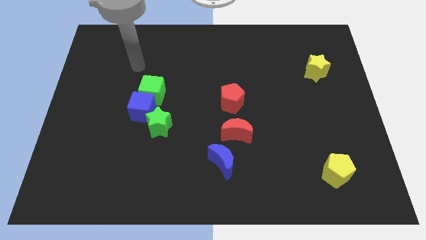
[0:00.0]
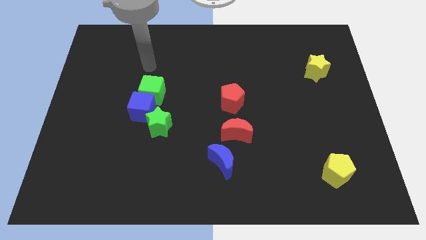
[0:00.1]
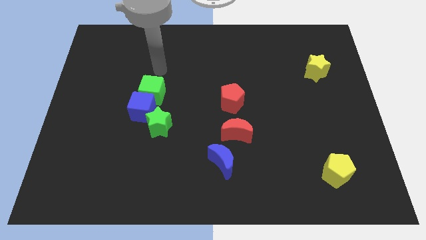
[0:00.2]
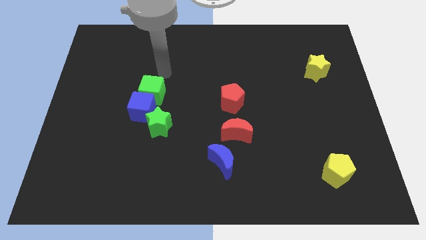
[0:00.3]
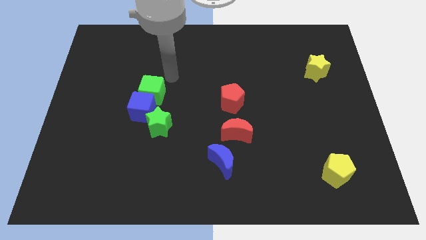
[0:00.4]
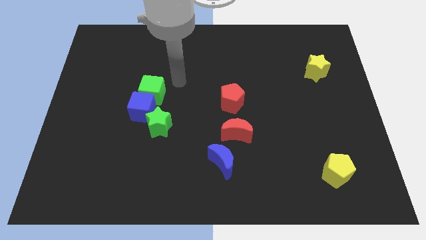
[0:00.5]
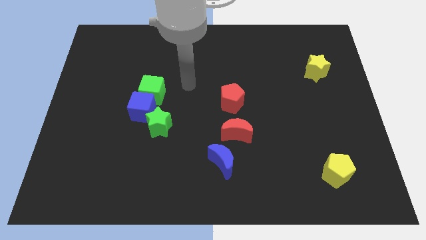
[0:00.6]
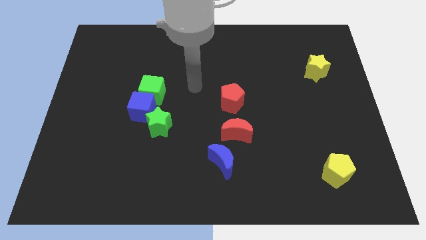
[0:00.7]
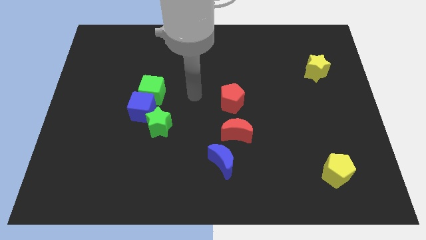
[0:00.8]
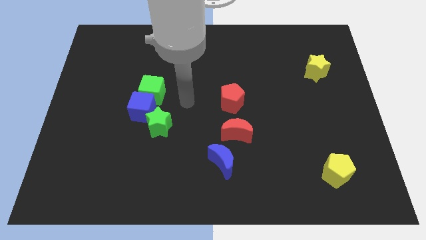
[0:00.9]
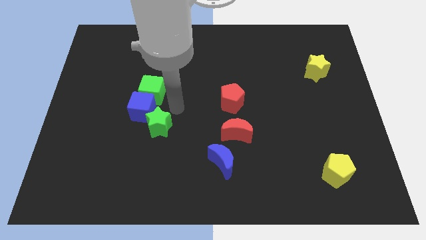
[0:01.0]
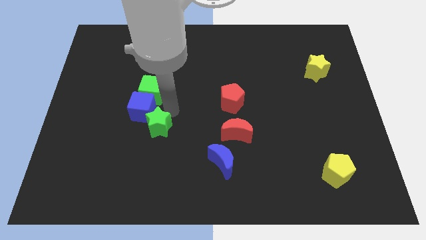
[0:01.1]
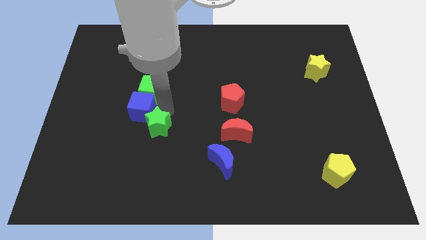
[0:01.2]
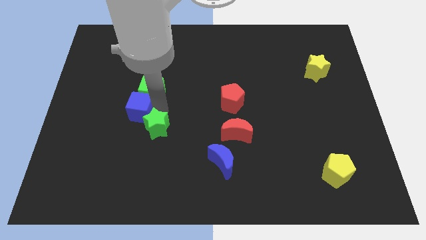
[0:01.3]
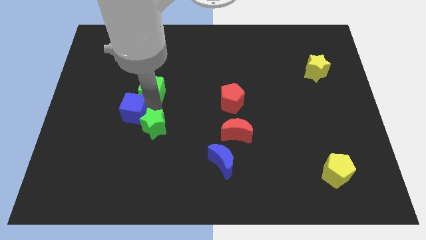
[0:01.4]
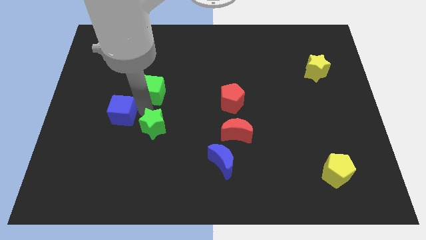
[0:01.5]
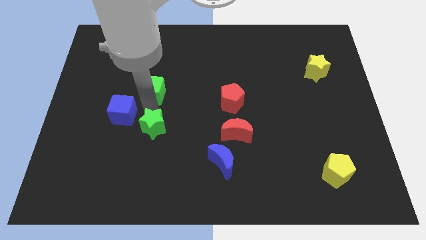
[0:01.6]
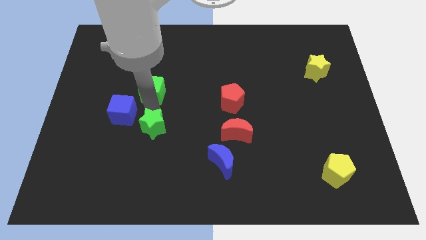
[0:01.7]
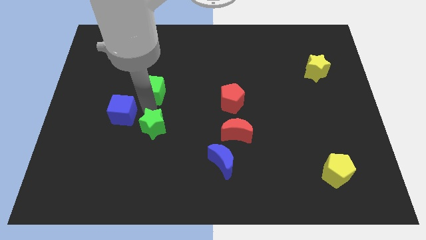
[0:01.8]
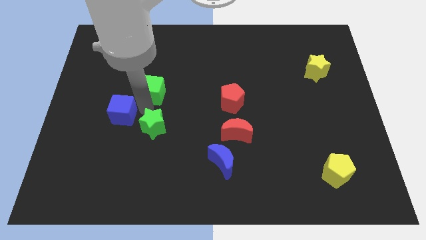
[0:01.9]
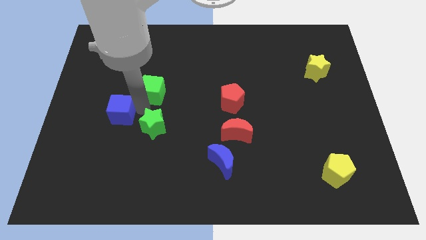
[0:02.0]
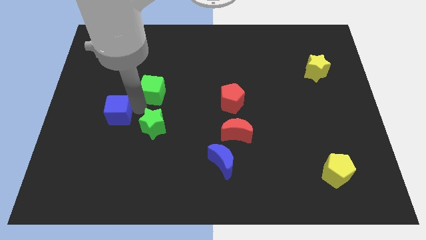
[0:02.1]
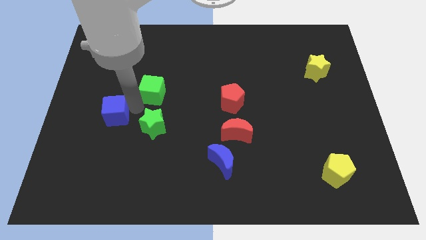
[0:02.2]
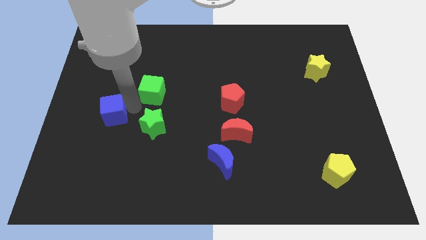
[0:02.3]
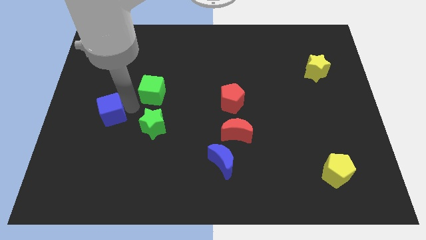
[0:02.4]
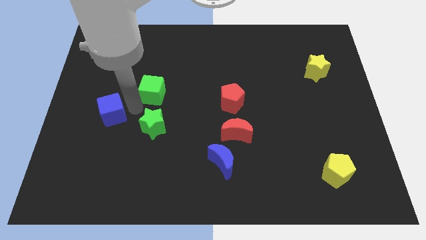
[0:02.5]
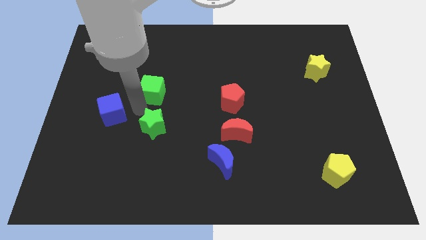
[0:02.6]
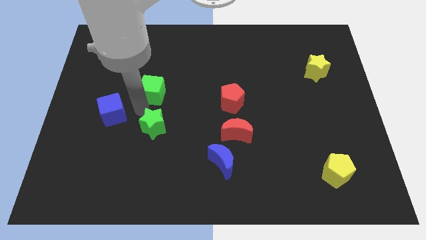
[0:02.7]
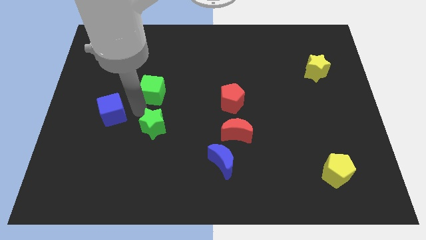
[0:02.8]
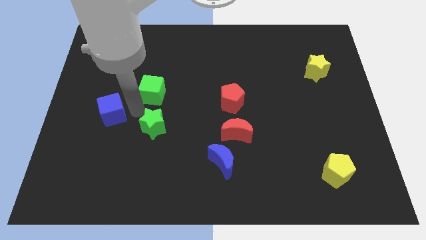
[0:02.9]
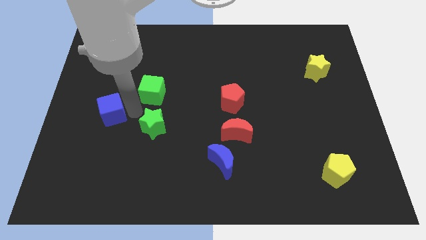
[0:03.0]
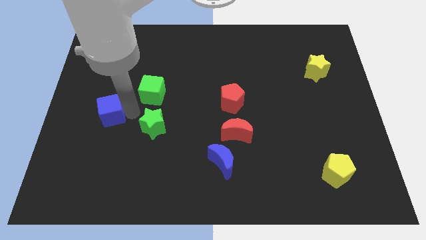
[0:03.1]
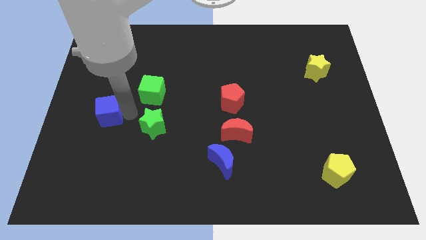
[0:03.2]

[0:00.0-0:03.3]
pull the blue cube apart from the green cube and green star

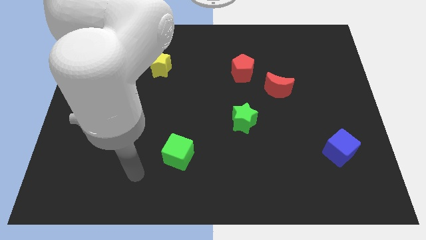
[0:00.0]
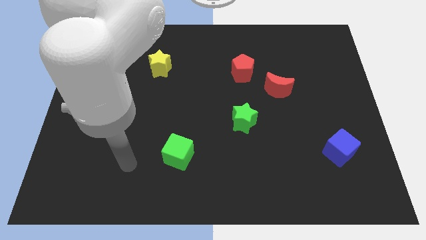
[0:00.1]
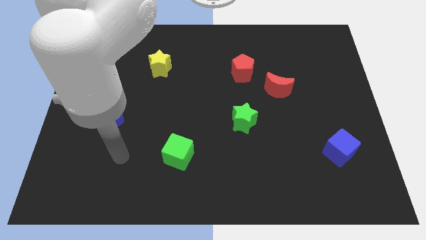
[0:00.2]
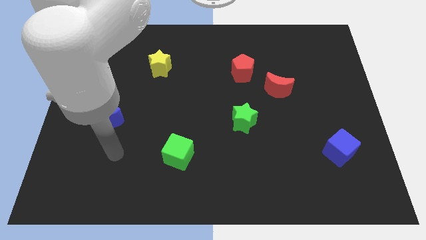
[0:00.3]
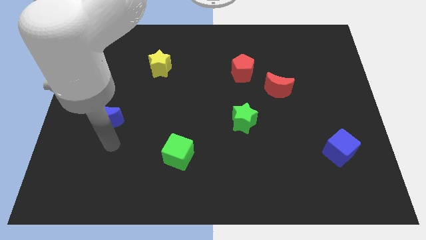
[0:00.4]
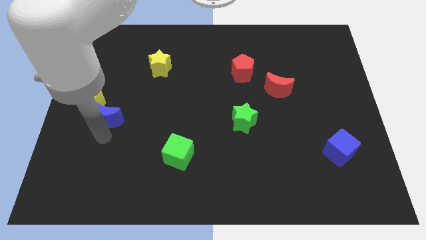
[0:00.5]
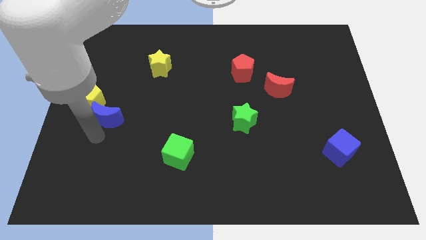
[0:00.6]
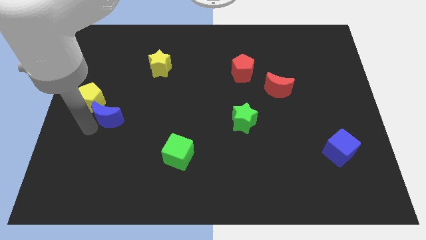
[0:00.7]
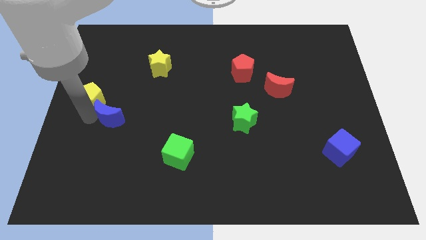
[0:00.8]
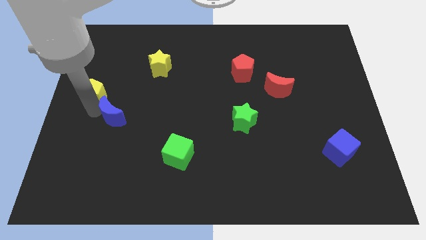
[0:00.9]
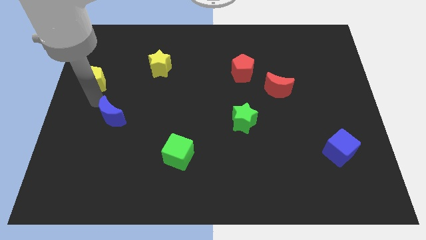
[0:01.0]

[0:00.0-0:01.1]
pull the blue moon apart from the yellow pentagon

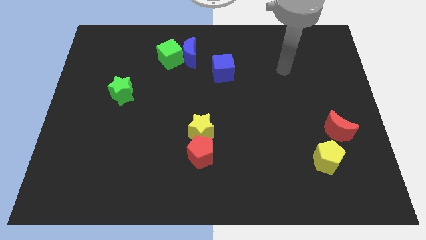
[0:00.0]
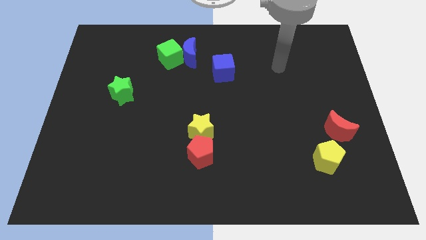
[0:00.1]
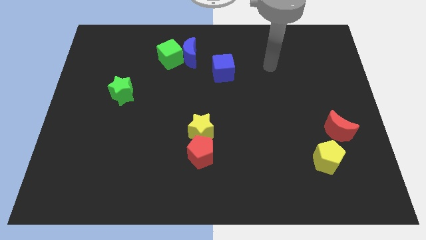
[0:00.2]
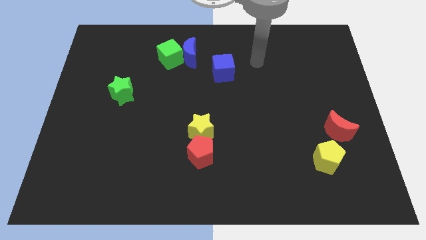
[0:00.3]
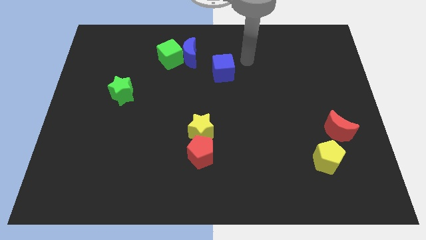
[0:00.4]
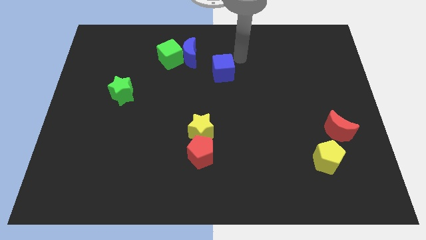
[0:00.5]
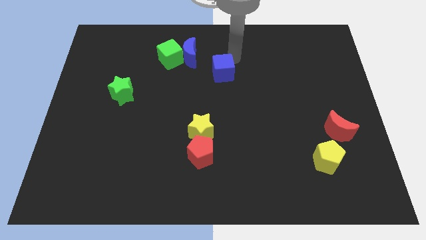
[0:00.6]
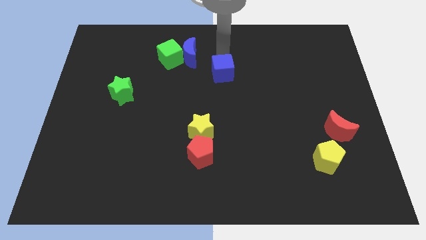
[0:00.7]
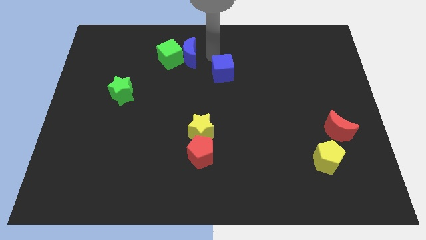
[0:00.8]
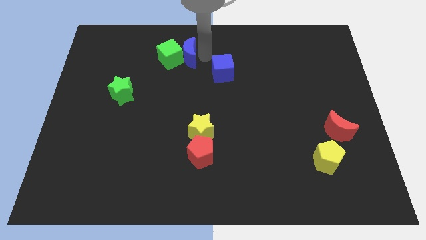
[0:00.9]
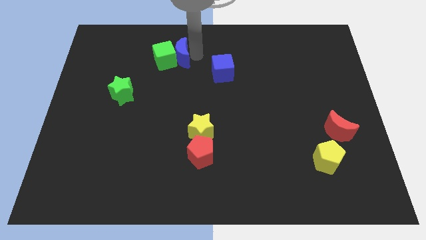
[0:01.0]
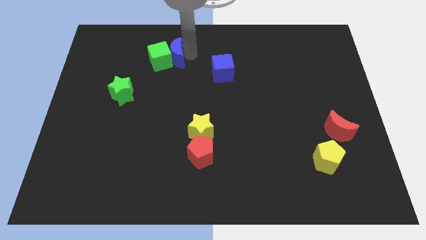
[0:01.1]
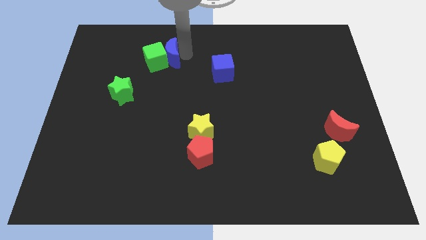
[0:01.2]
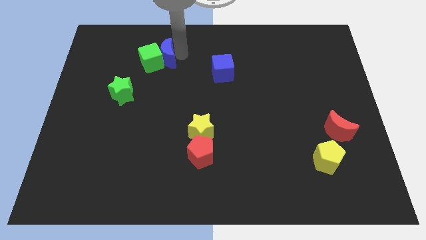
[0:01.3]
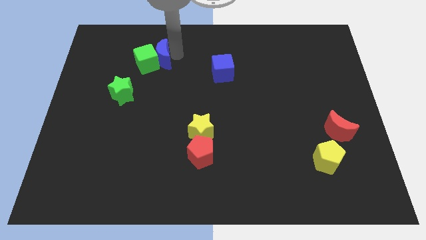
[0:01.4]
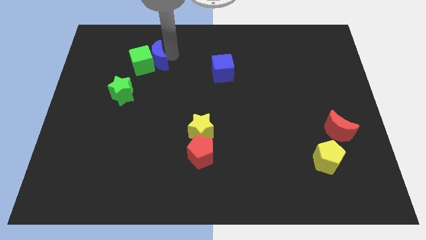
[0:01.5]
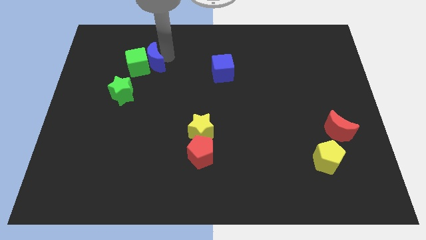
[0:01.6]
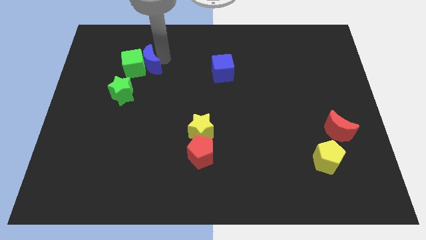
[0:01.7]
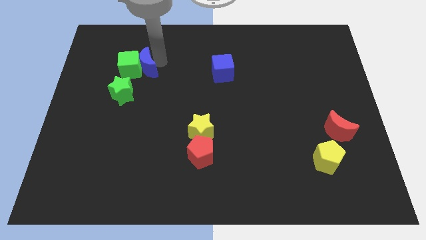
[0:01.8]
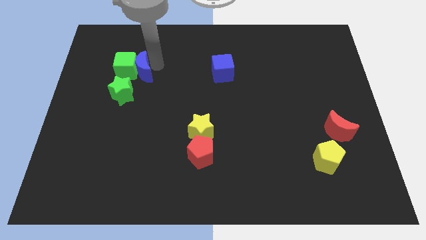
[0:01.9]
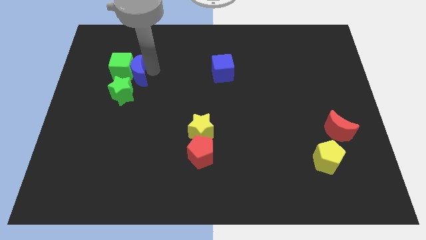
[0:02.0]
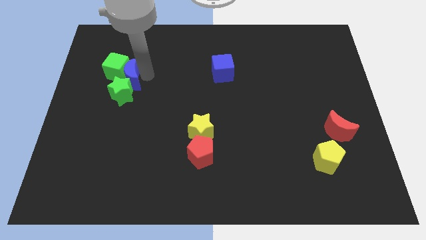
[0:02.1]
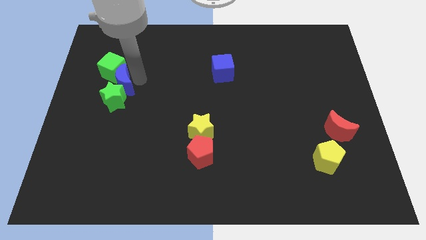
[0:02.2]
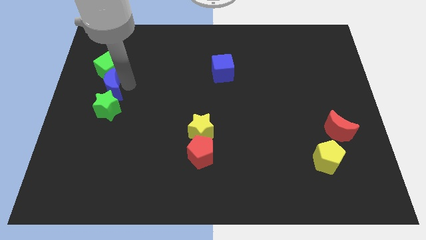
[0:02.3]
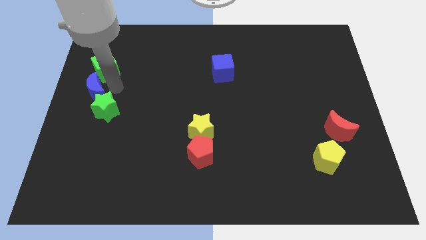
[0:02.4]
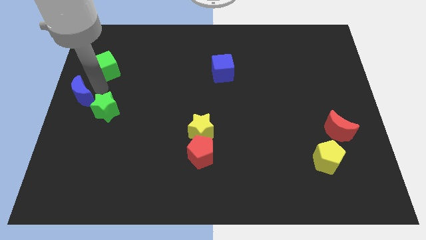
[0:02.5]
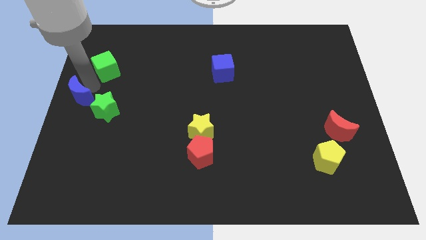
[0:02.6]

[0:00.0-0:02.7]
move the green cube away from the blue moon

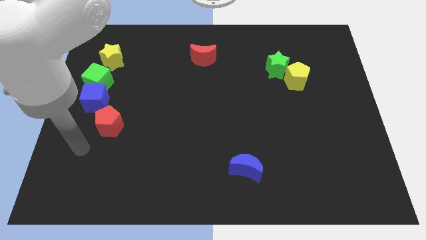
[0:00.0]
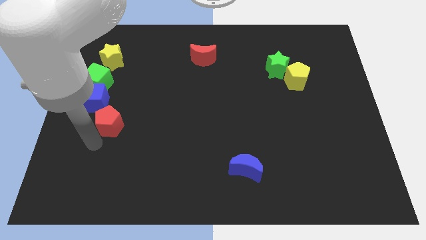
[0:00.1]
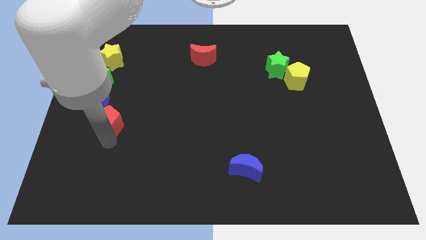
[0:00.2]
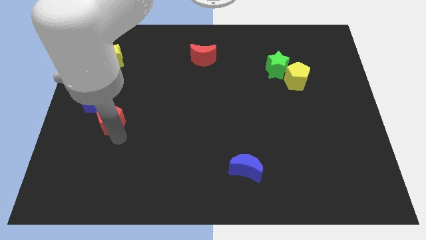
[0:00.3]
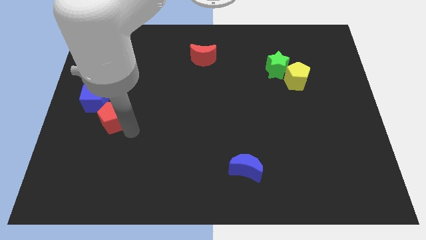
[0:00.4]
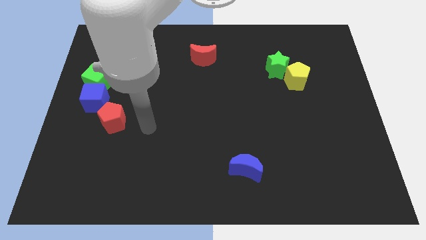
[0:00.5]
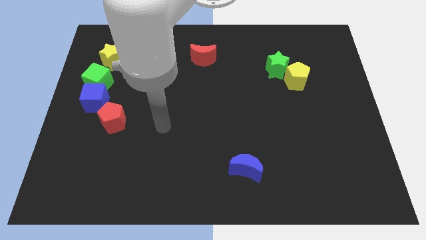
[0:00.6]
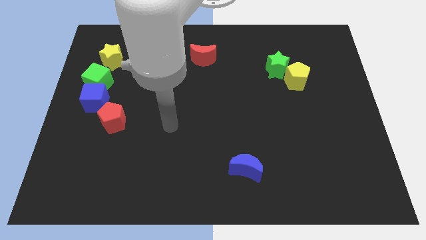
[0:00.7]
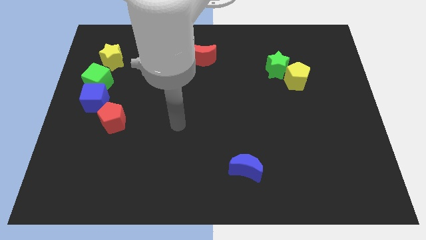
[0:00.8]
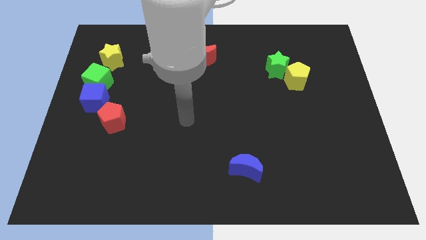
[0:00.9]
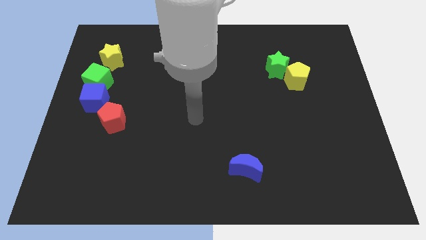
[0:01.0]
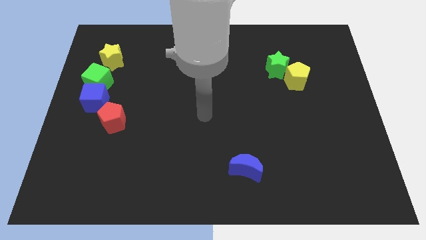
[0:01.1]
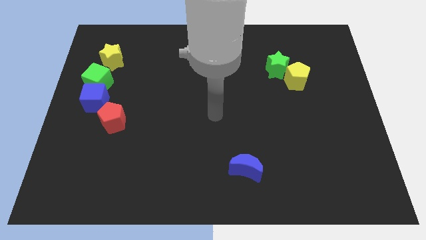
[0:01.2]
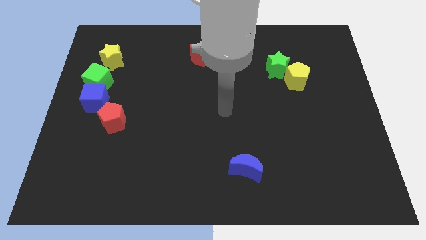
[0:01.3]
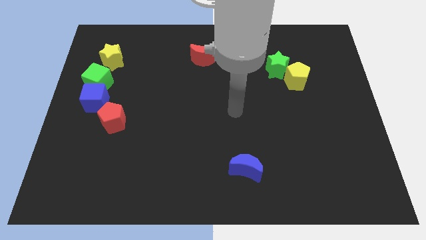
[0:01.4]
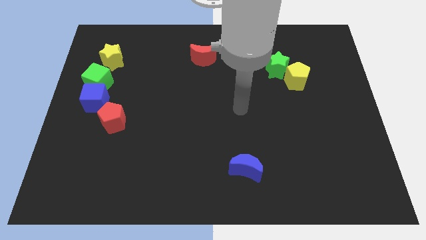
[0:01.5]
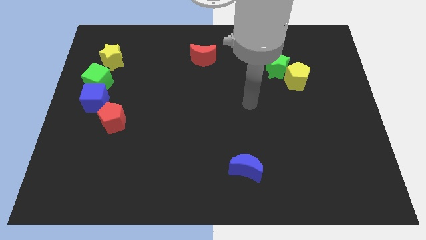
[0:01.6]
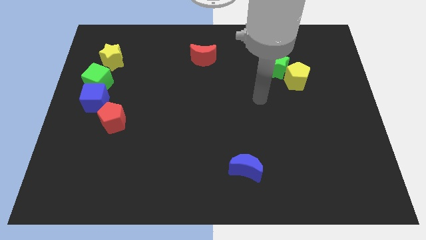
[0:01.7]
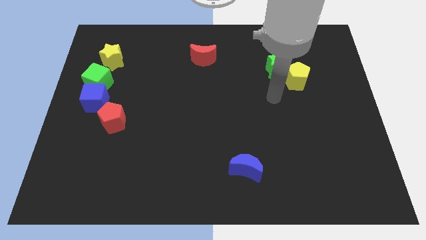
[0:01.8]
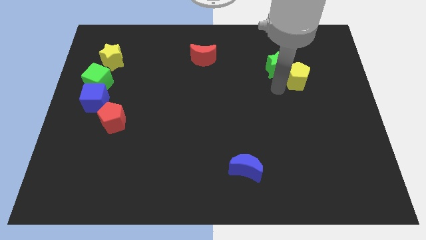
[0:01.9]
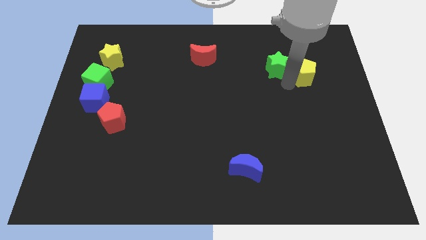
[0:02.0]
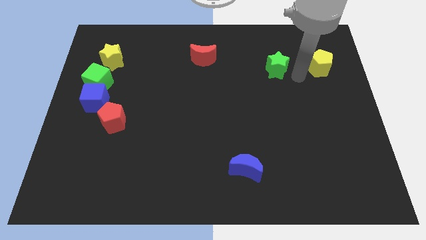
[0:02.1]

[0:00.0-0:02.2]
move the green star away from the yellow pentagon
